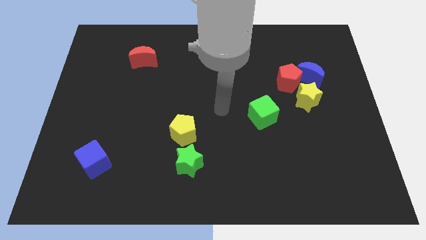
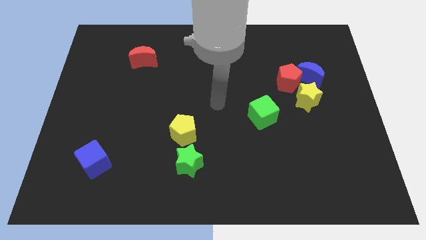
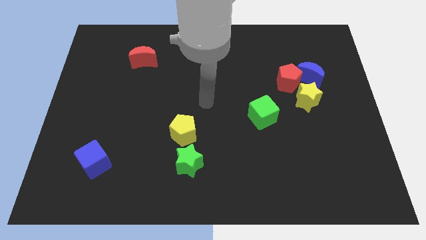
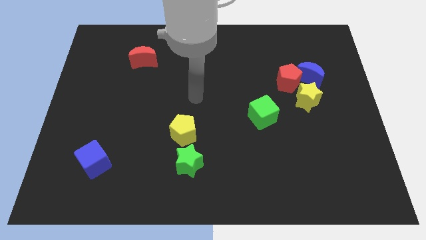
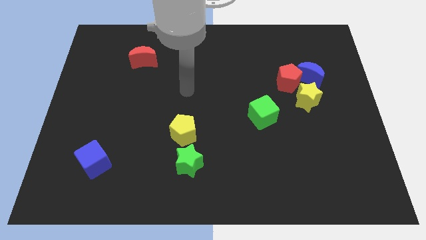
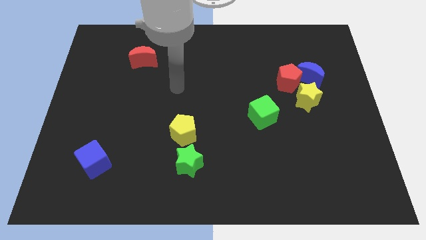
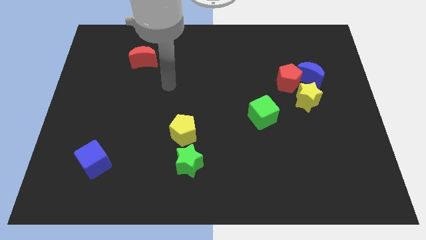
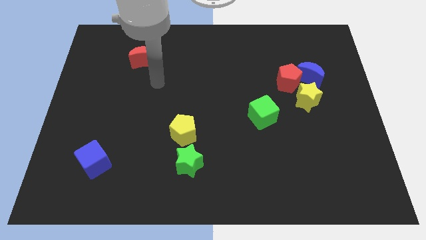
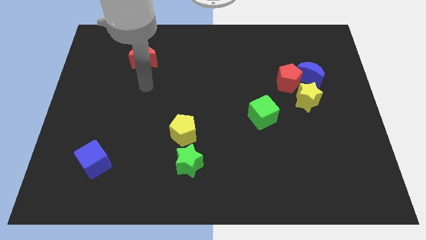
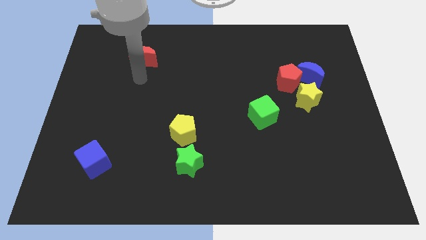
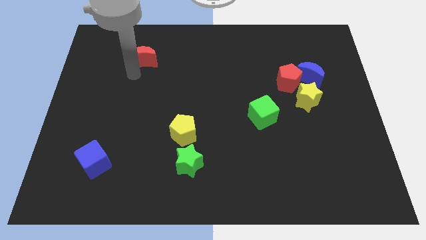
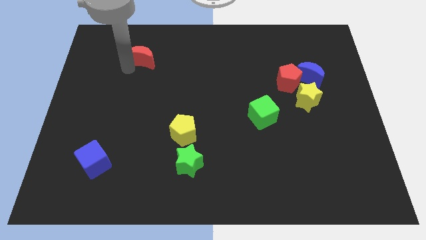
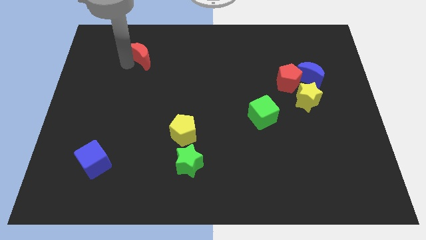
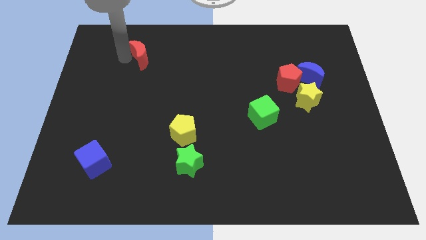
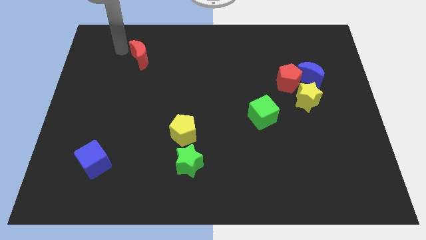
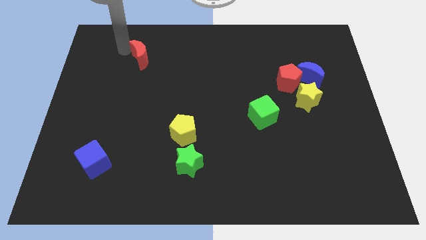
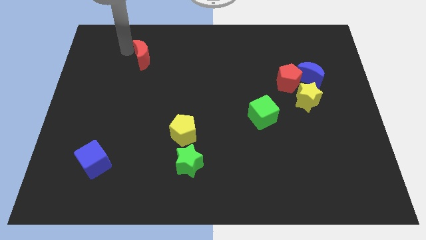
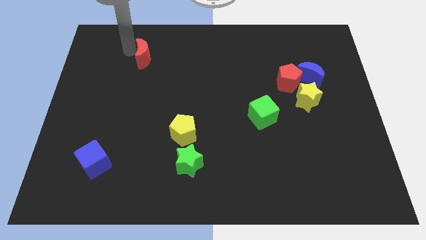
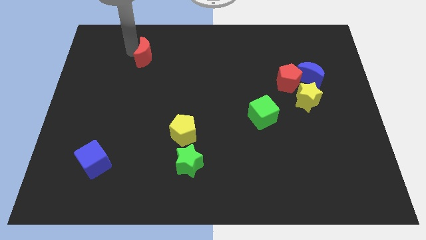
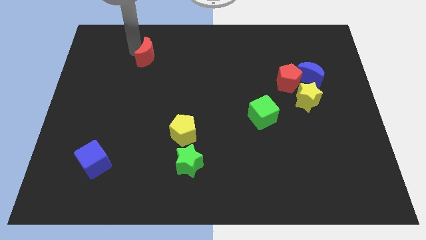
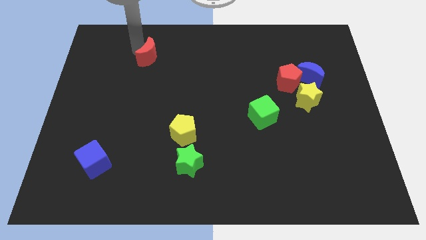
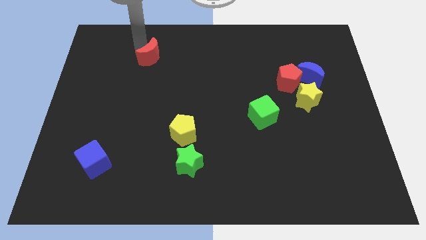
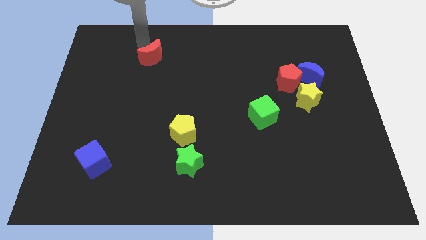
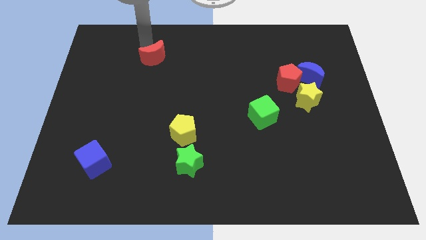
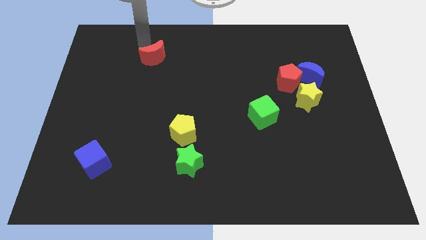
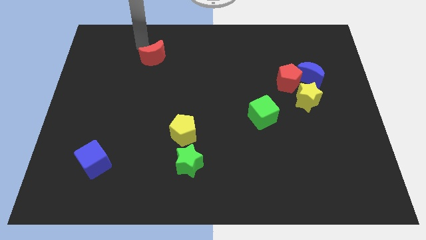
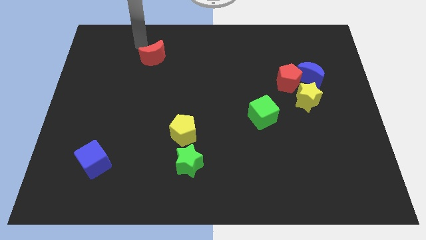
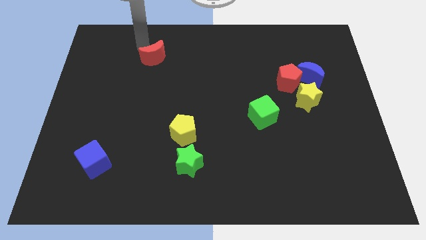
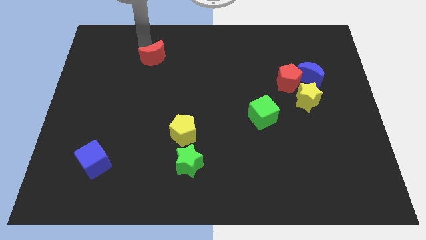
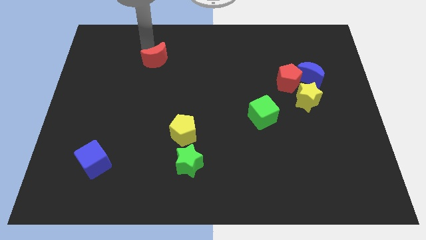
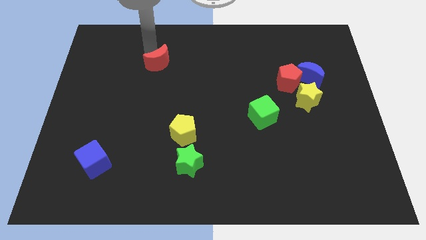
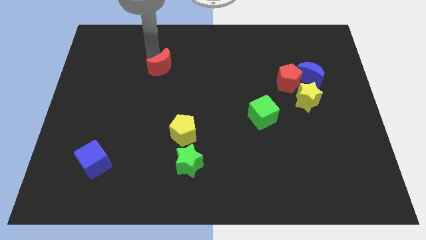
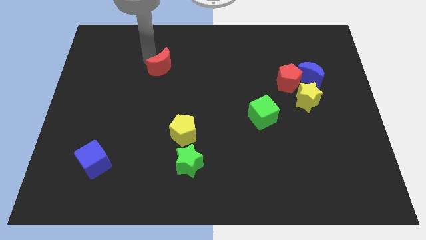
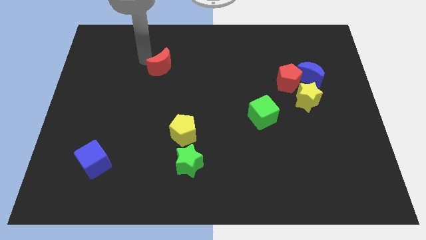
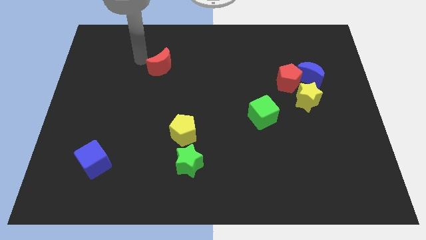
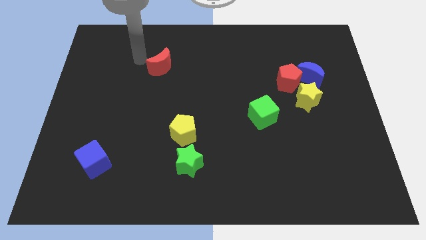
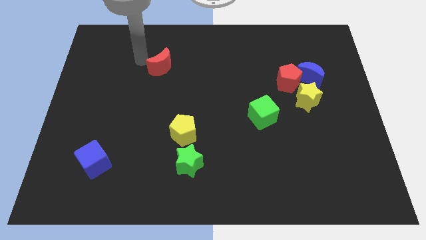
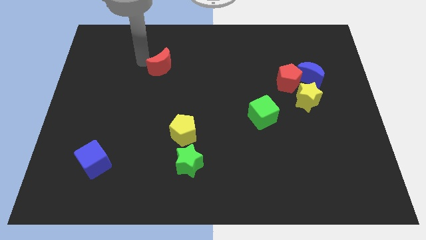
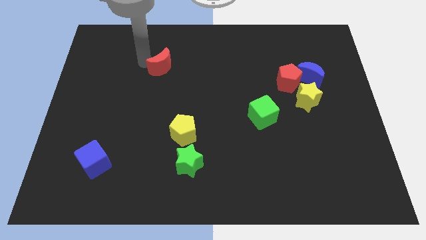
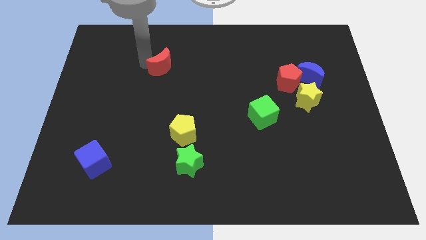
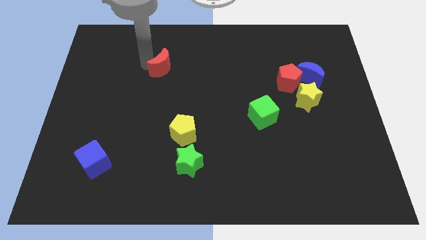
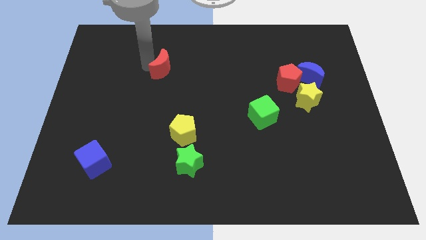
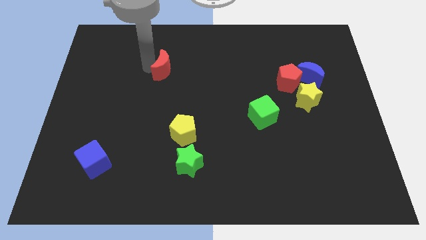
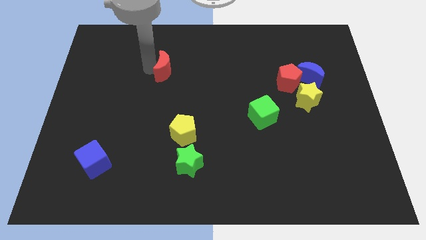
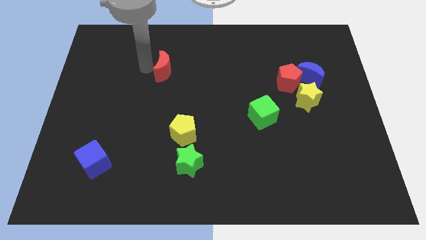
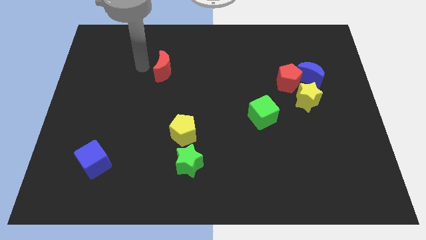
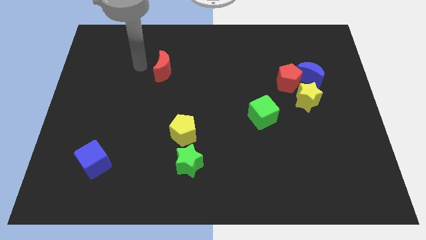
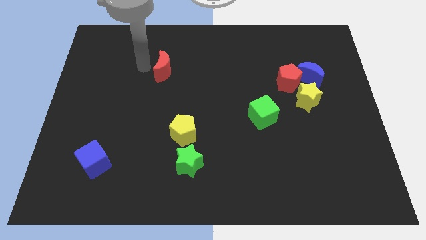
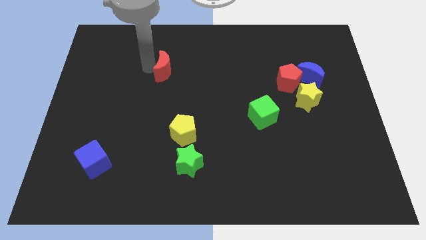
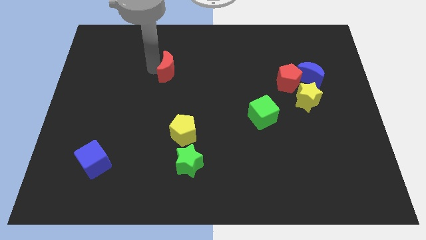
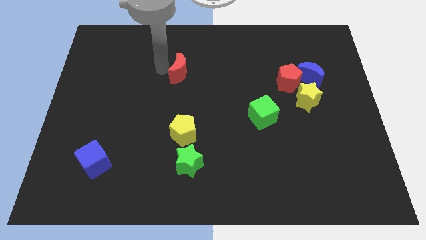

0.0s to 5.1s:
push the red moon to the middle of the board

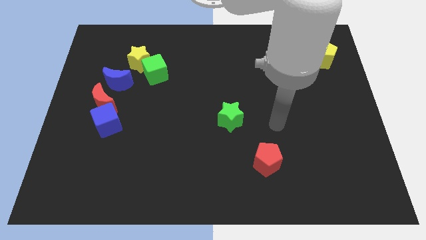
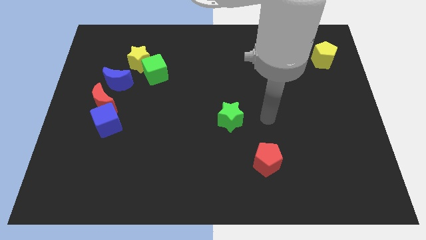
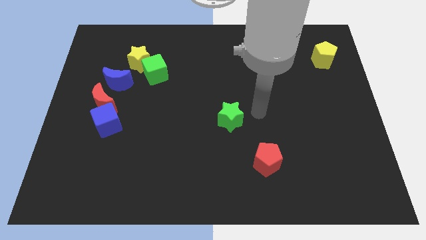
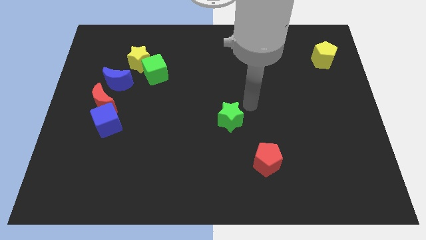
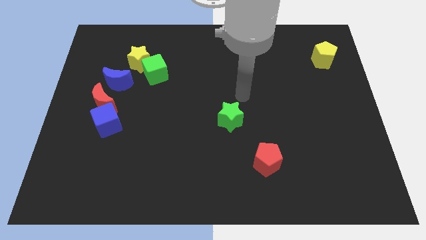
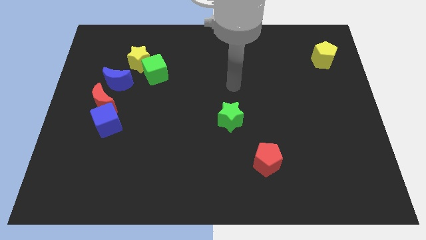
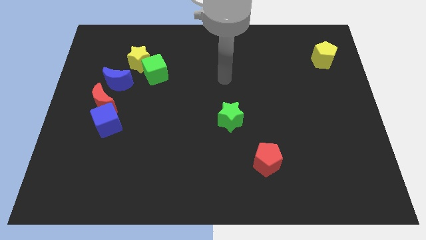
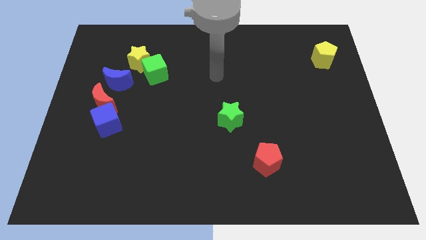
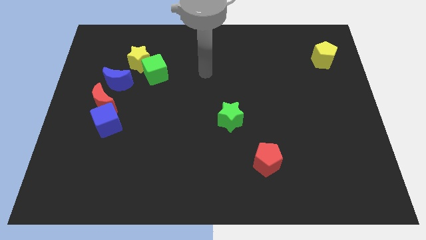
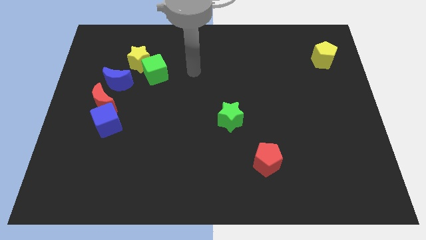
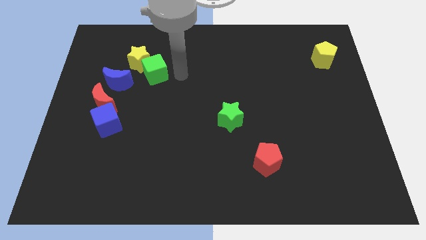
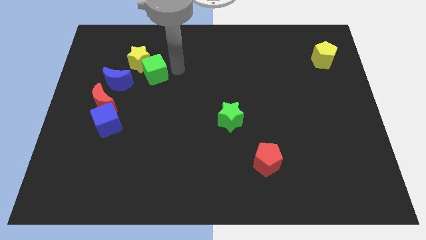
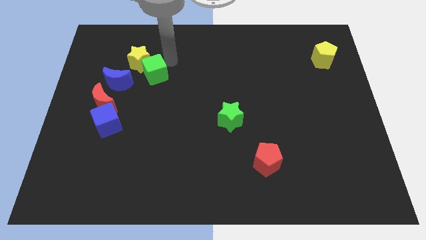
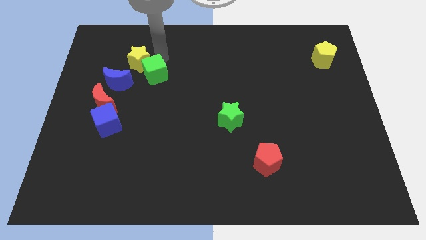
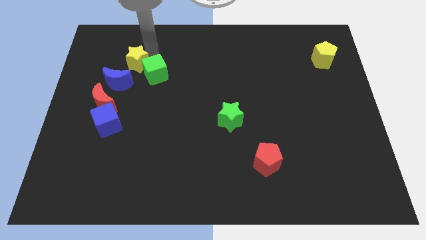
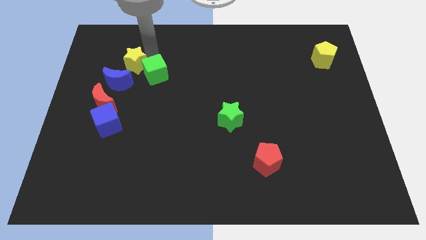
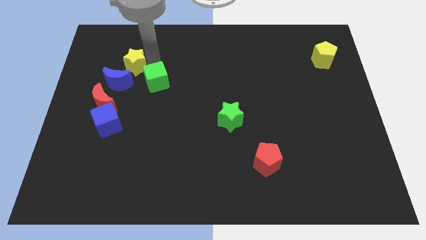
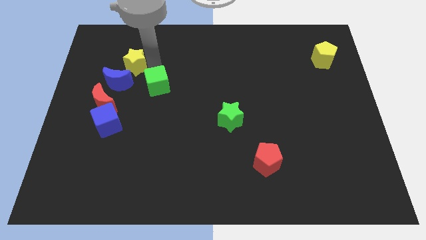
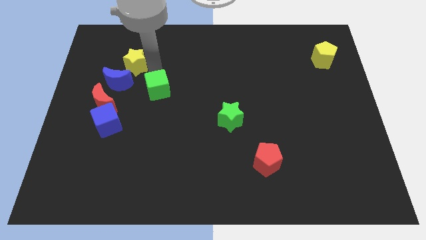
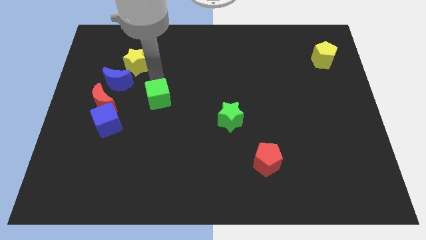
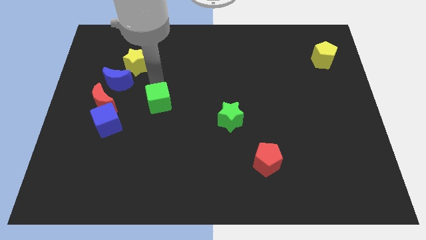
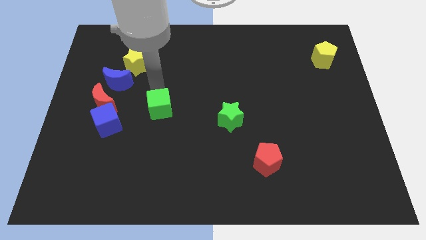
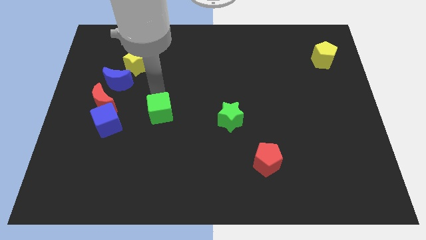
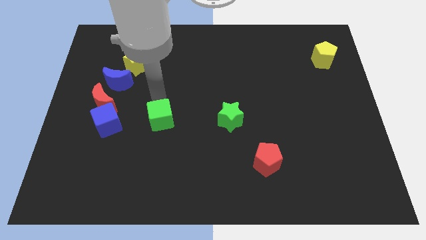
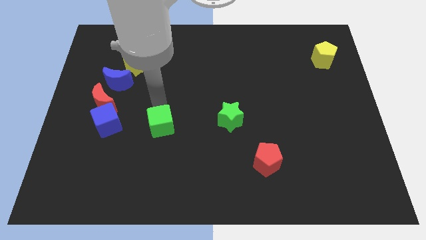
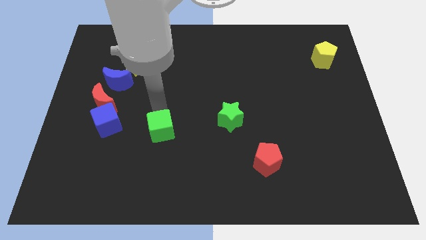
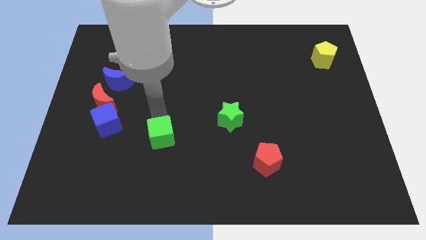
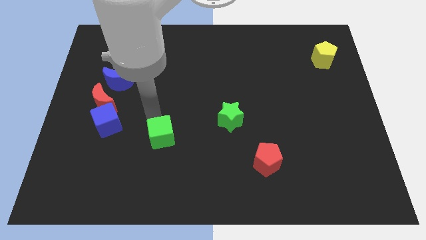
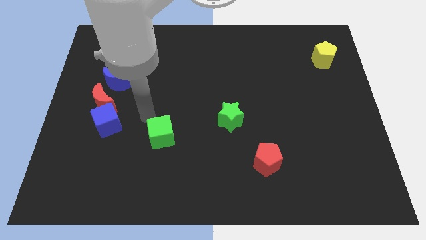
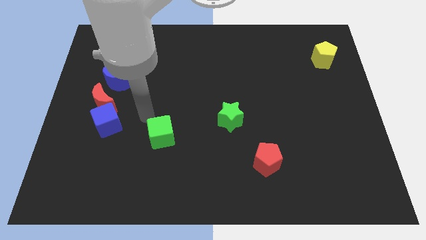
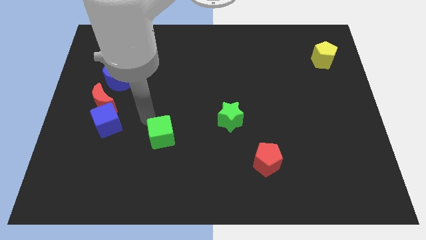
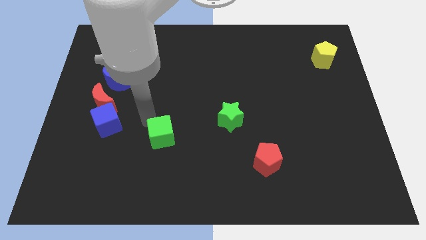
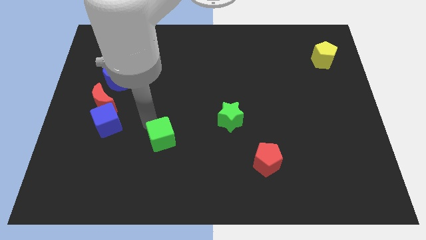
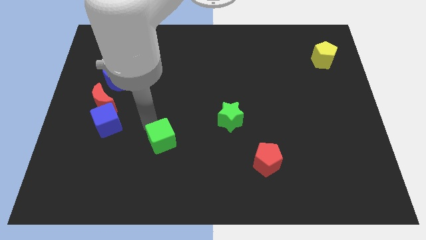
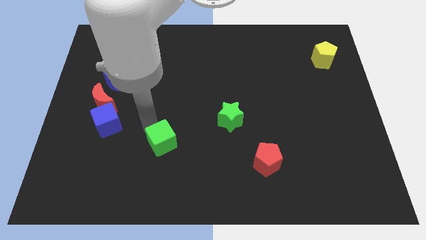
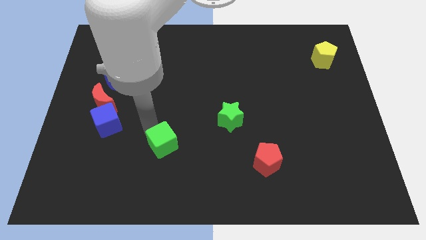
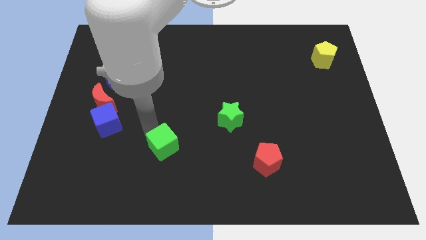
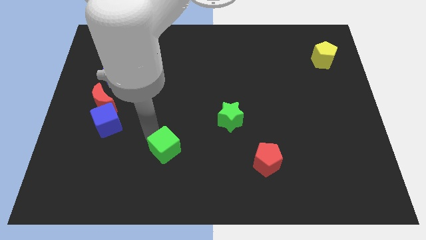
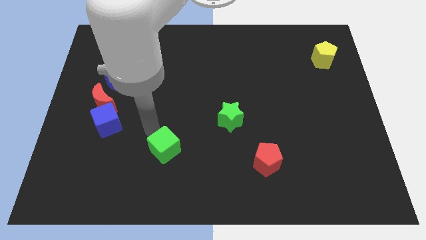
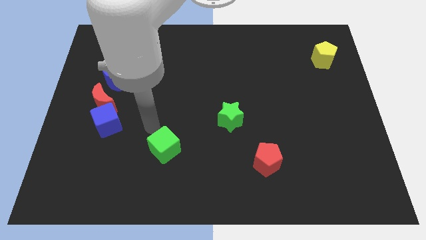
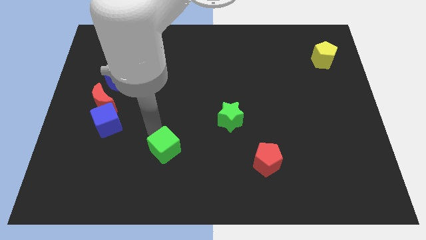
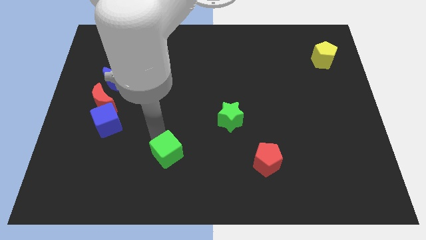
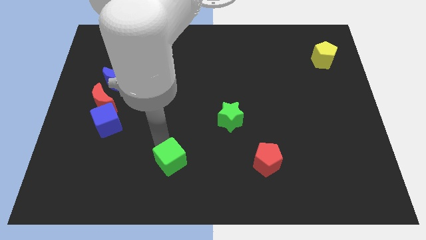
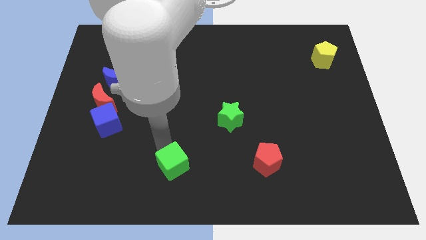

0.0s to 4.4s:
move the green cube to the bottom side
